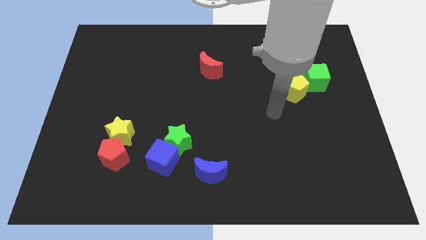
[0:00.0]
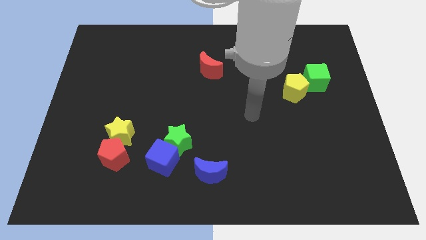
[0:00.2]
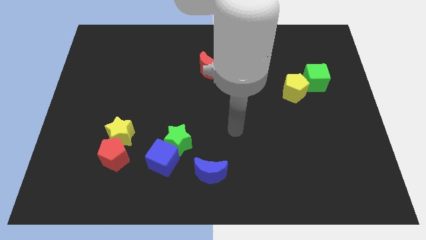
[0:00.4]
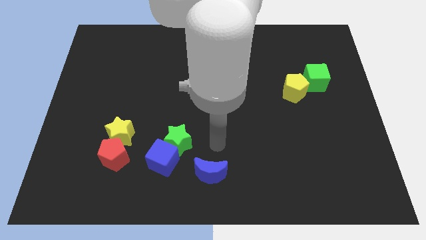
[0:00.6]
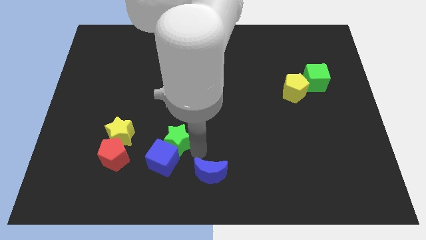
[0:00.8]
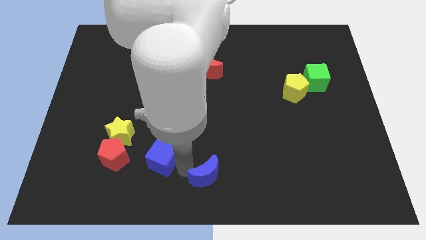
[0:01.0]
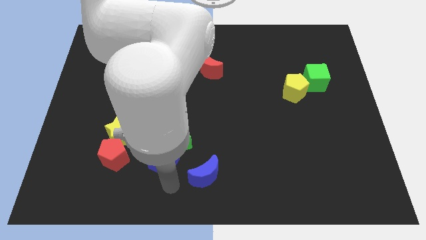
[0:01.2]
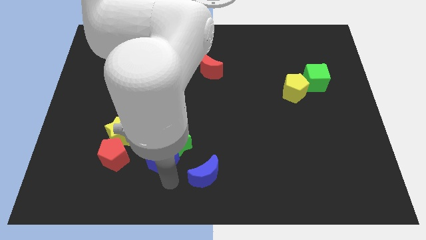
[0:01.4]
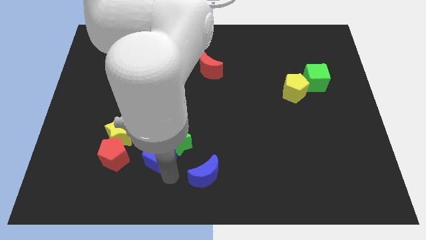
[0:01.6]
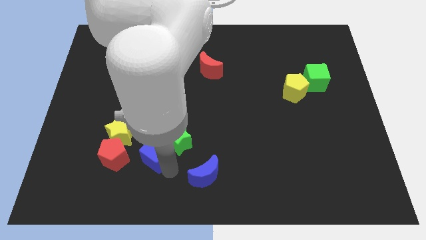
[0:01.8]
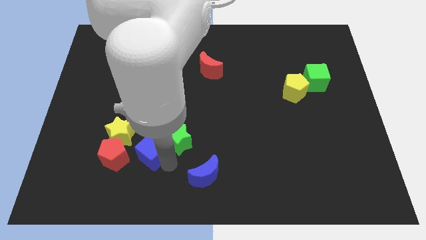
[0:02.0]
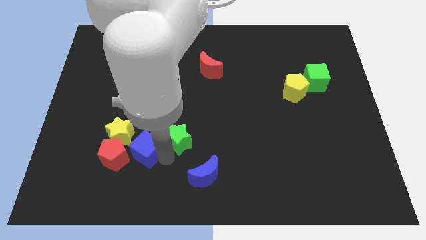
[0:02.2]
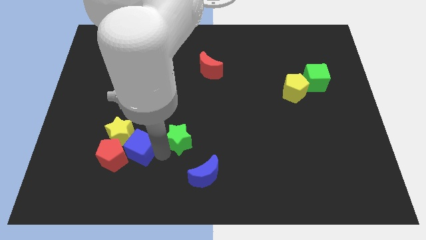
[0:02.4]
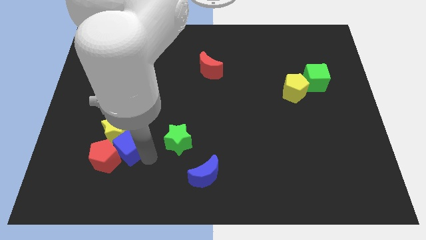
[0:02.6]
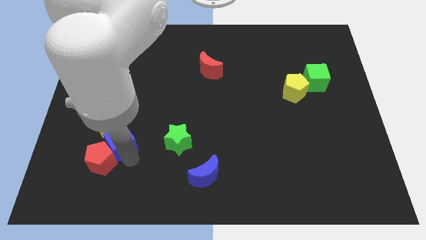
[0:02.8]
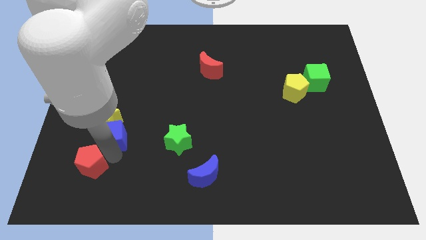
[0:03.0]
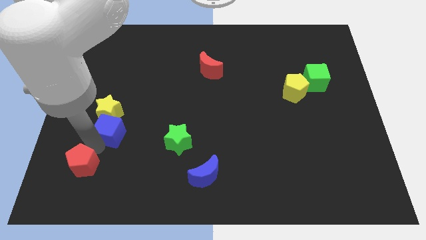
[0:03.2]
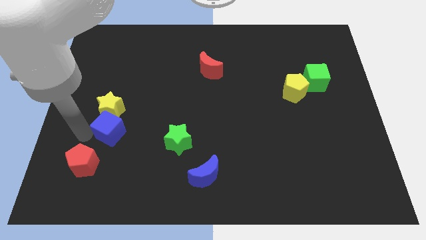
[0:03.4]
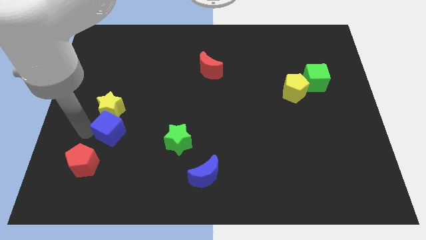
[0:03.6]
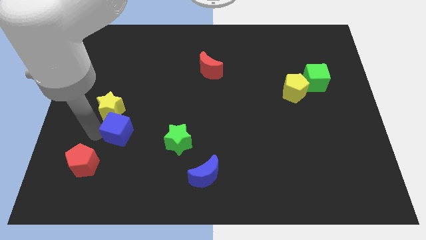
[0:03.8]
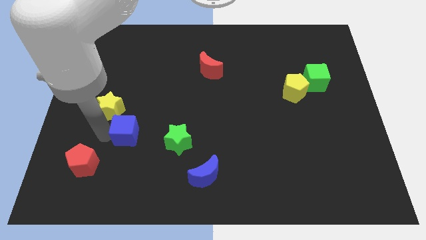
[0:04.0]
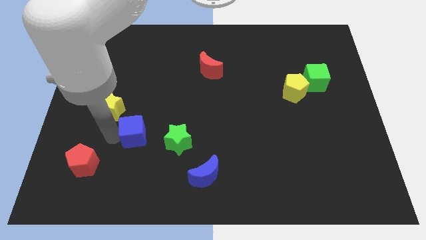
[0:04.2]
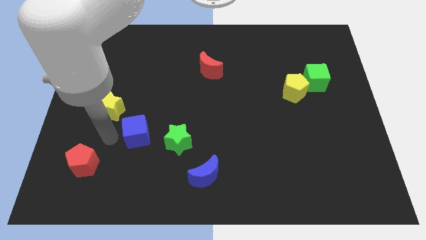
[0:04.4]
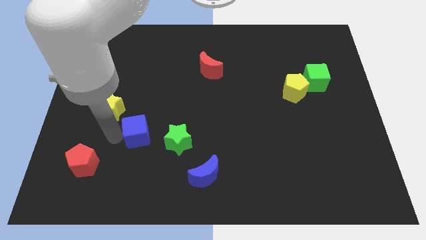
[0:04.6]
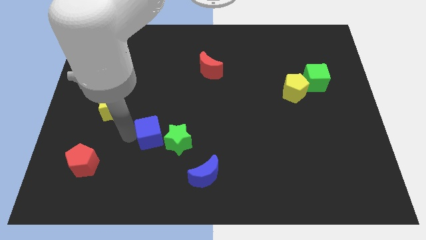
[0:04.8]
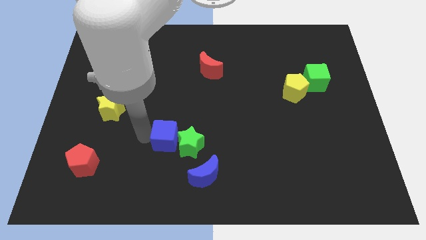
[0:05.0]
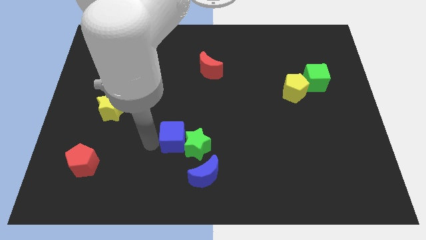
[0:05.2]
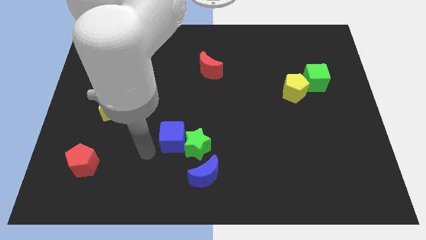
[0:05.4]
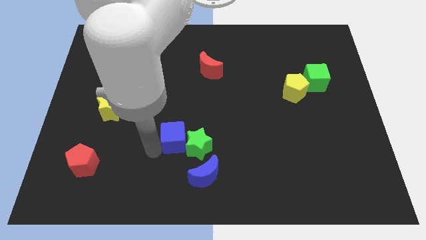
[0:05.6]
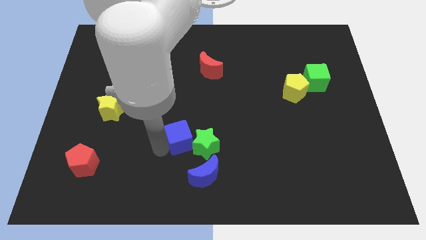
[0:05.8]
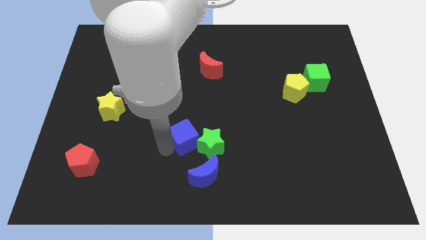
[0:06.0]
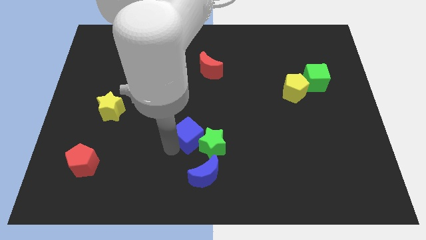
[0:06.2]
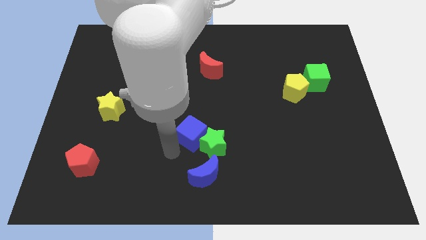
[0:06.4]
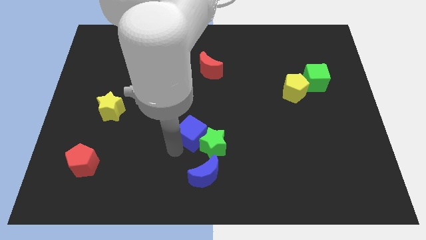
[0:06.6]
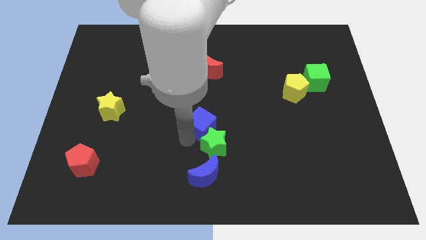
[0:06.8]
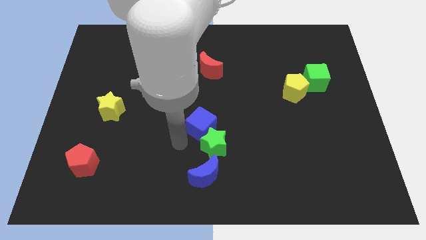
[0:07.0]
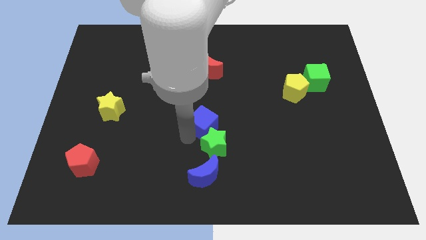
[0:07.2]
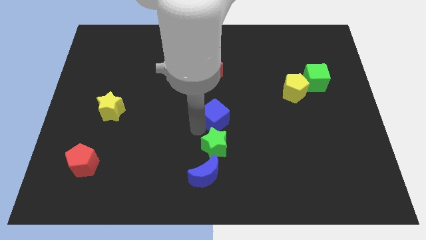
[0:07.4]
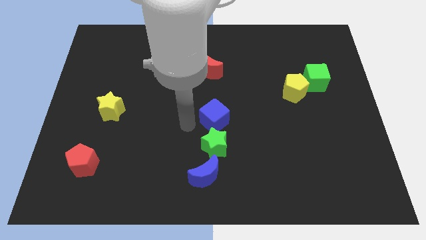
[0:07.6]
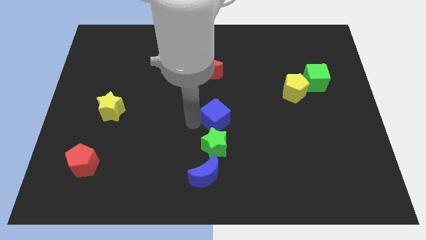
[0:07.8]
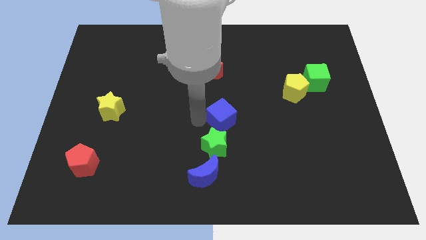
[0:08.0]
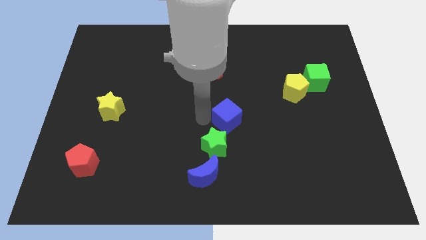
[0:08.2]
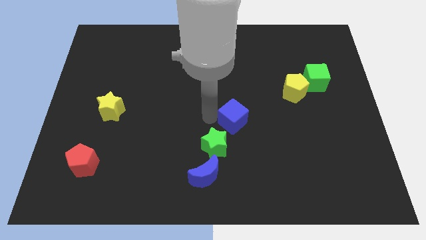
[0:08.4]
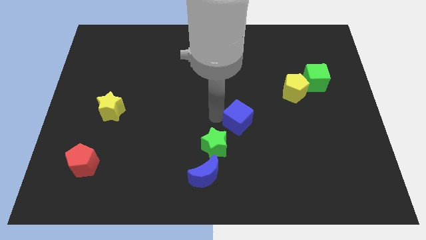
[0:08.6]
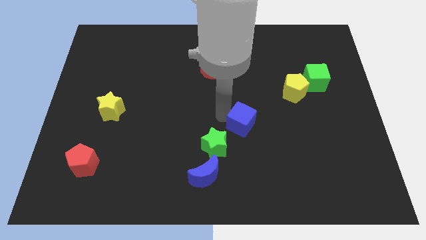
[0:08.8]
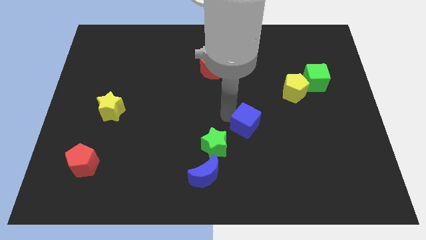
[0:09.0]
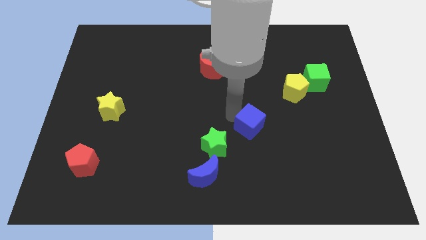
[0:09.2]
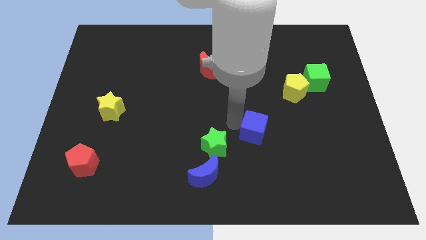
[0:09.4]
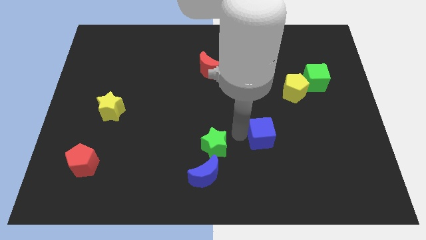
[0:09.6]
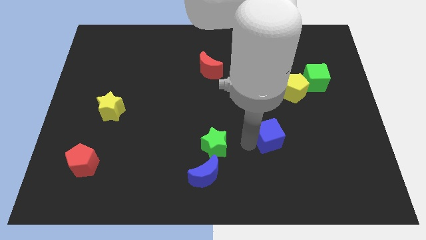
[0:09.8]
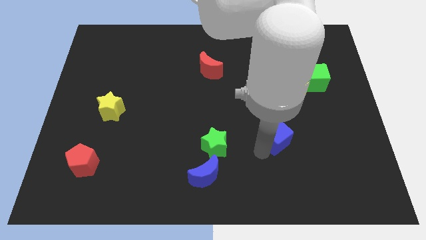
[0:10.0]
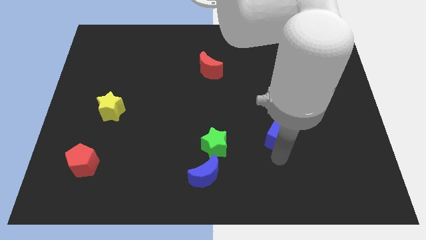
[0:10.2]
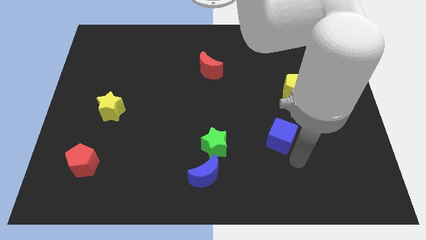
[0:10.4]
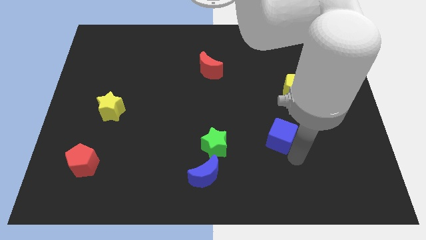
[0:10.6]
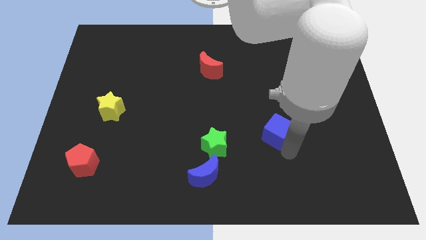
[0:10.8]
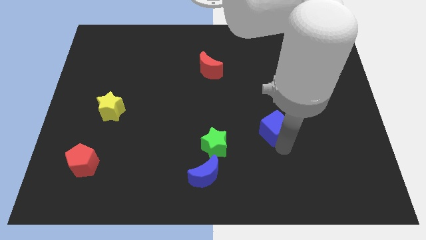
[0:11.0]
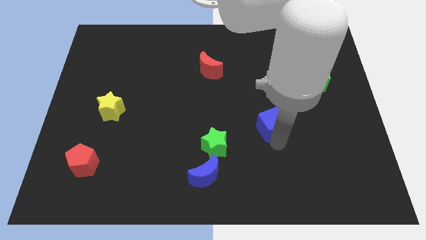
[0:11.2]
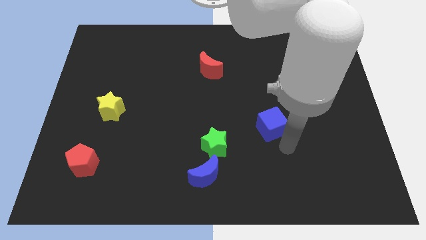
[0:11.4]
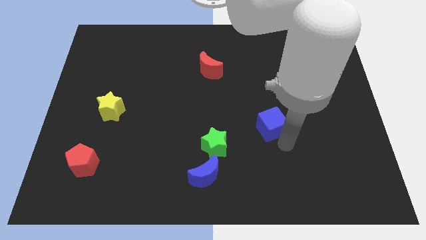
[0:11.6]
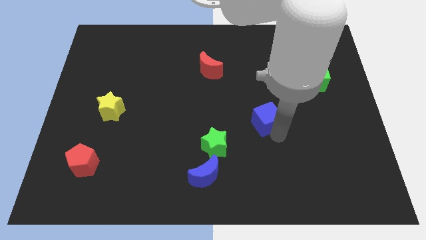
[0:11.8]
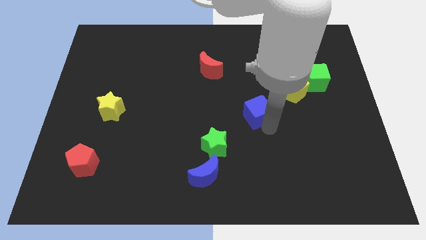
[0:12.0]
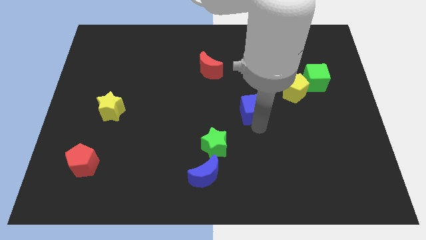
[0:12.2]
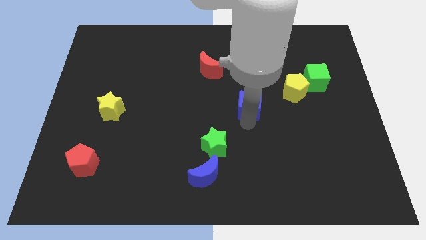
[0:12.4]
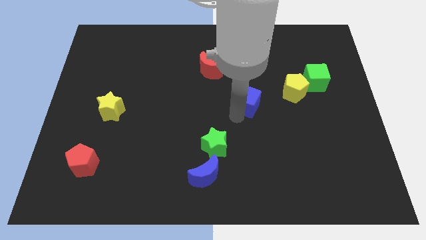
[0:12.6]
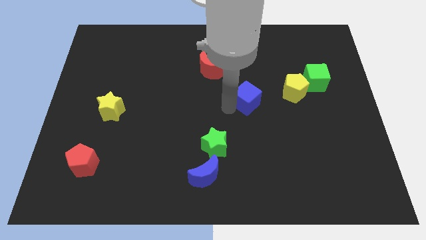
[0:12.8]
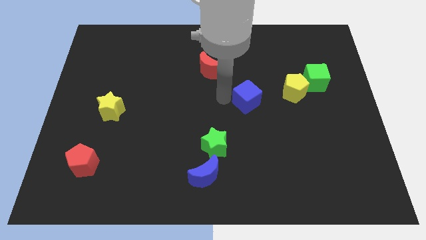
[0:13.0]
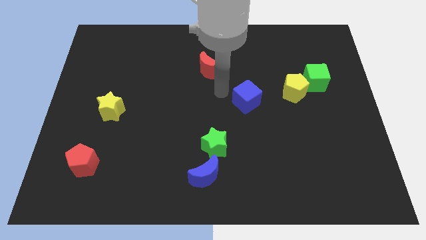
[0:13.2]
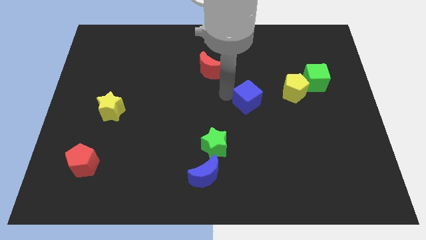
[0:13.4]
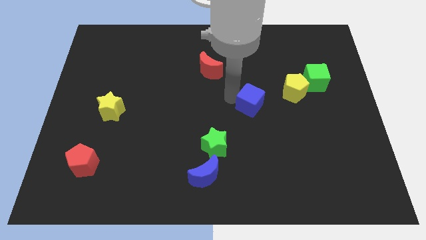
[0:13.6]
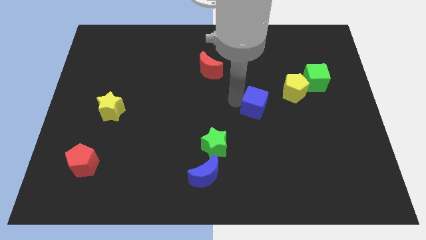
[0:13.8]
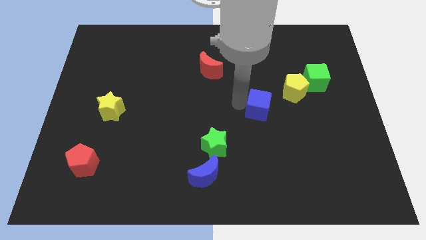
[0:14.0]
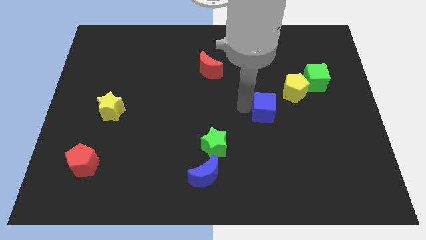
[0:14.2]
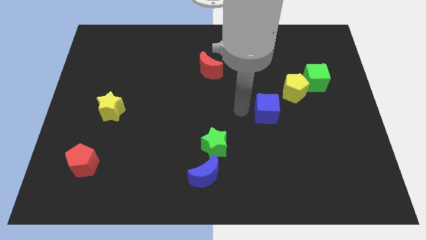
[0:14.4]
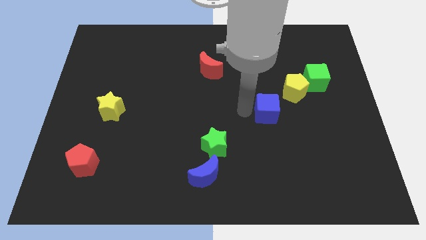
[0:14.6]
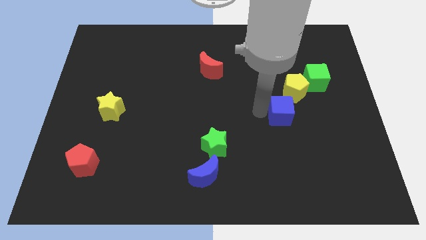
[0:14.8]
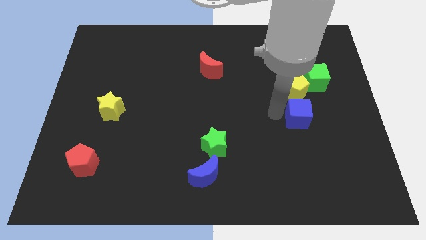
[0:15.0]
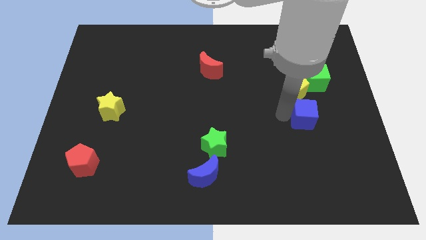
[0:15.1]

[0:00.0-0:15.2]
put the blue cube below the green cube
